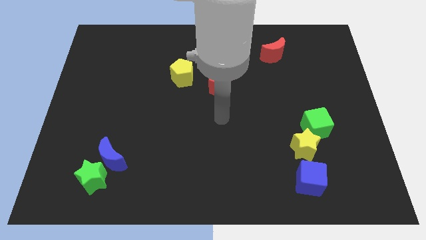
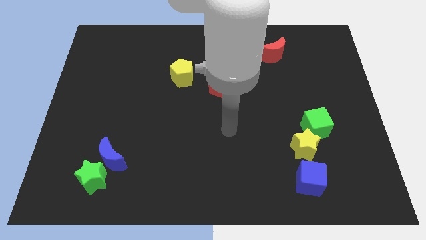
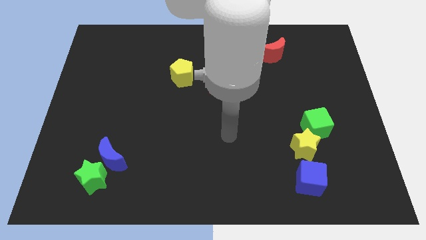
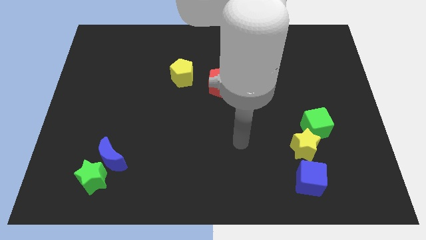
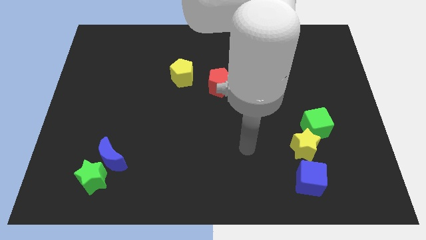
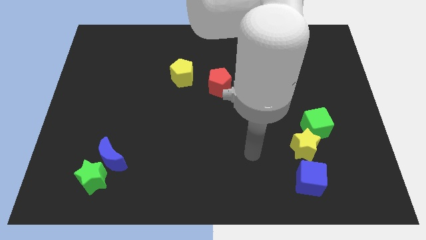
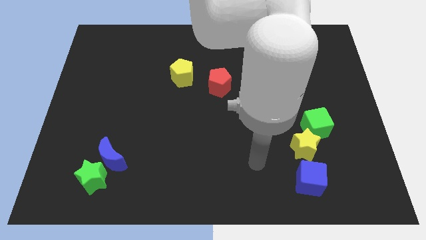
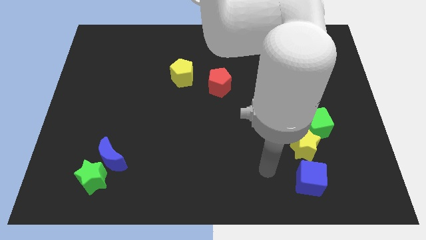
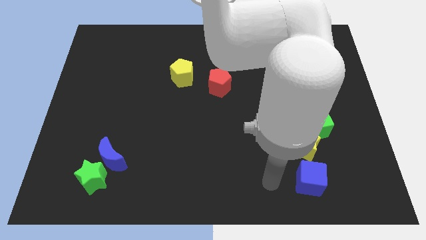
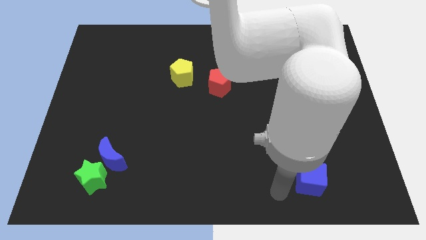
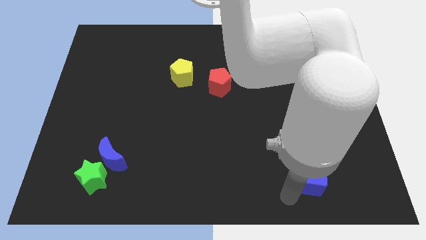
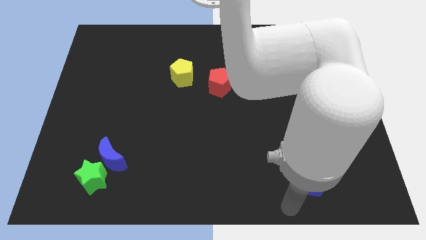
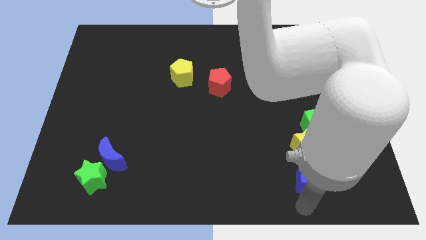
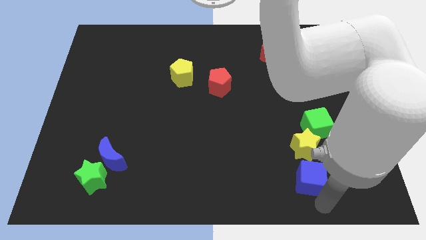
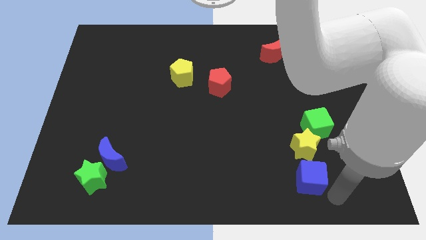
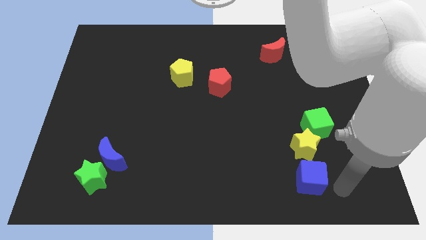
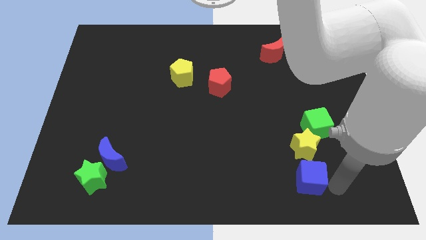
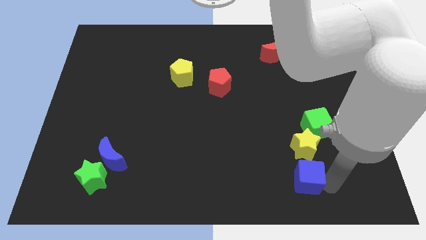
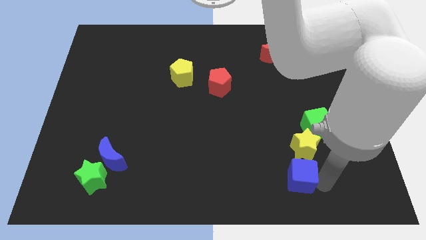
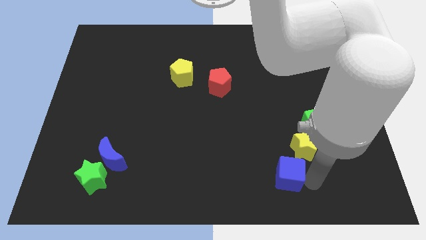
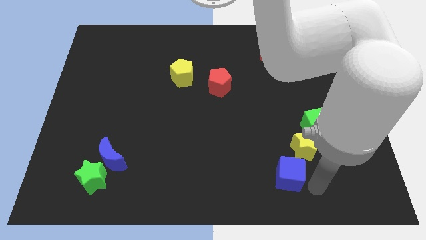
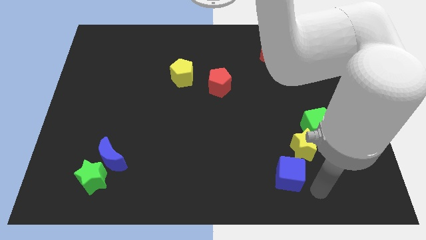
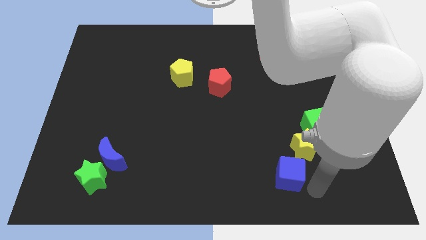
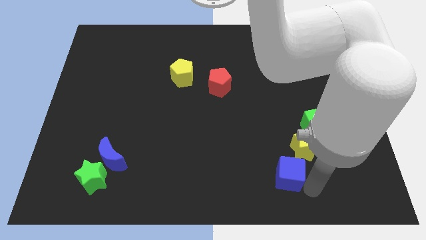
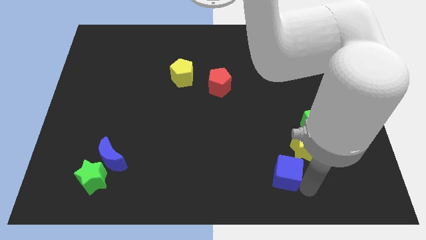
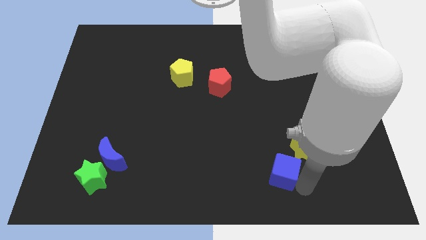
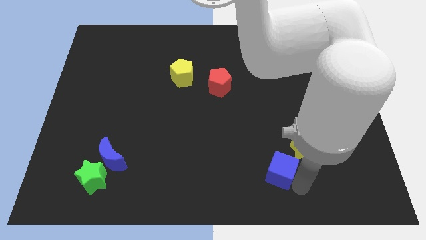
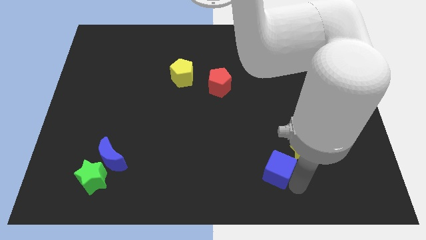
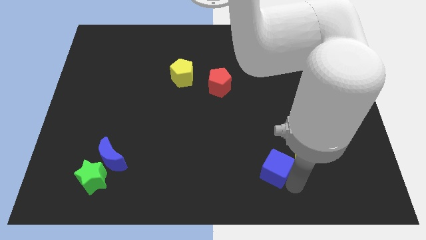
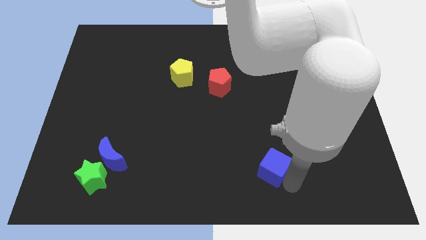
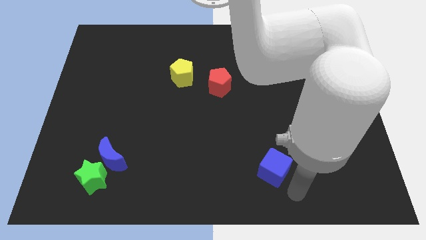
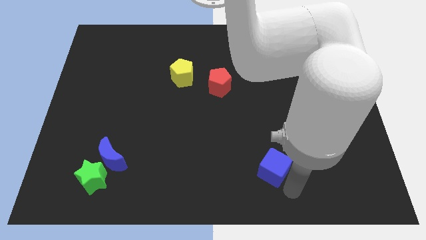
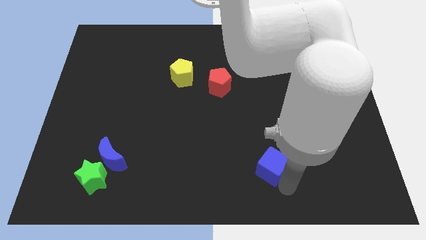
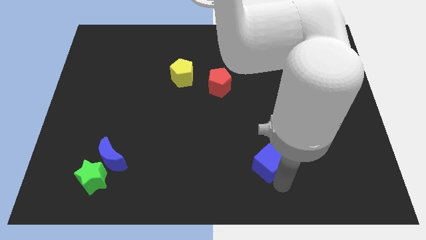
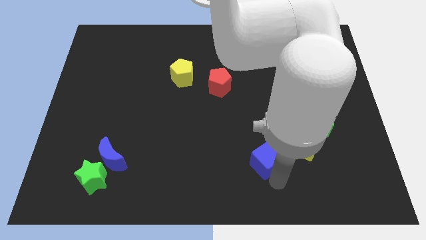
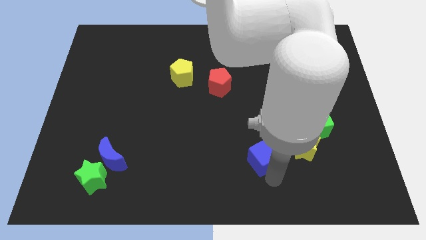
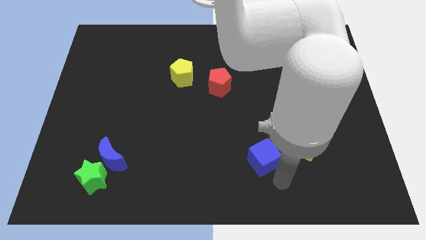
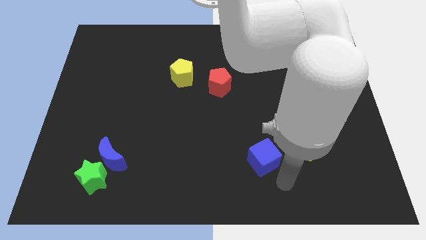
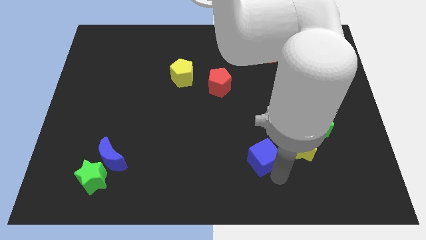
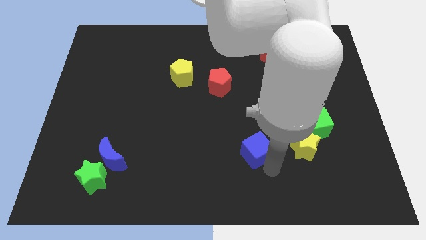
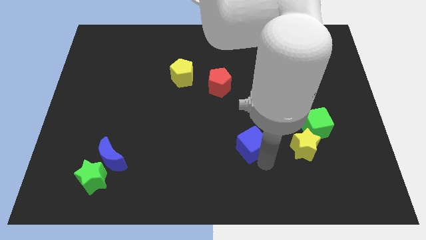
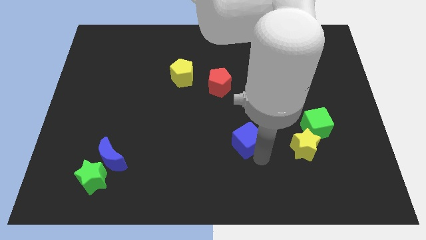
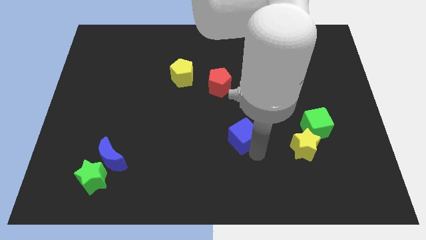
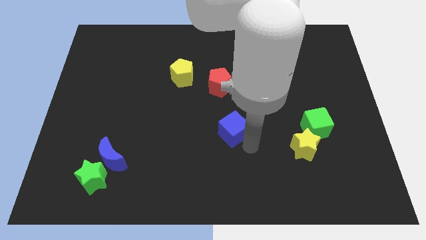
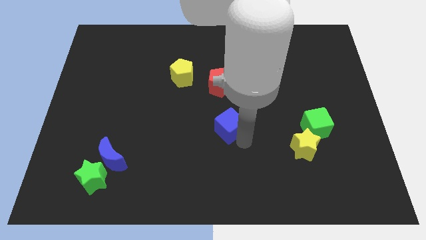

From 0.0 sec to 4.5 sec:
push the blue cube up and then left

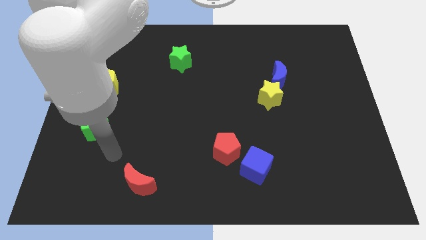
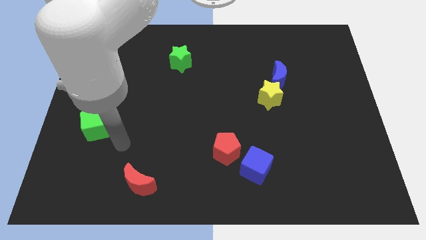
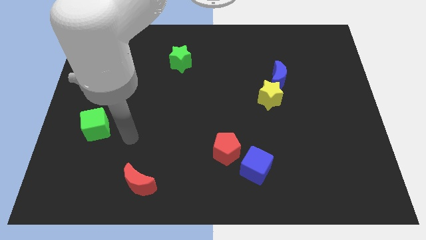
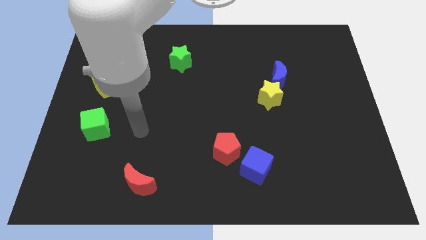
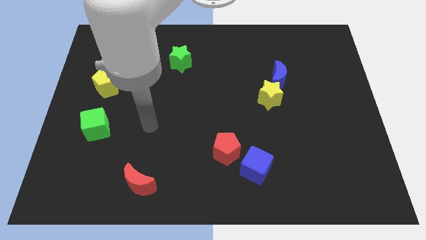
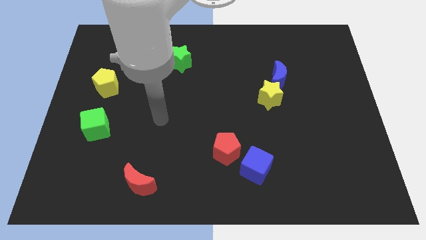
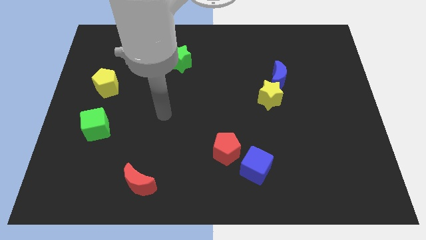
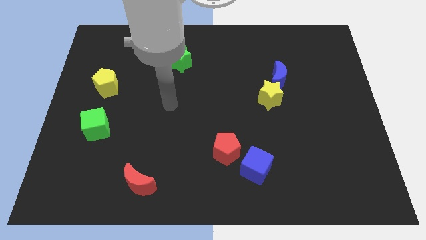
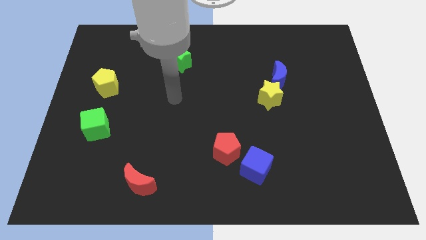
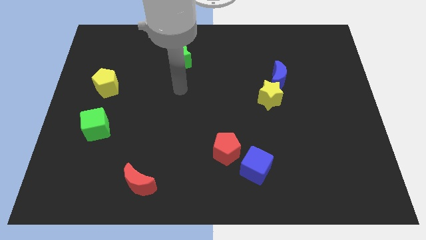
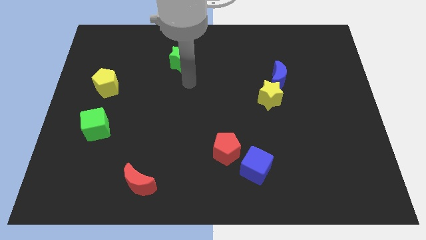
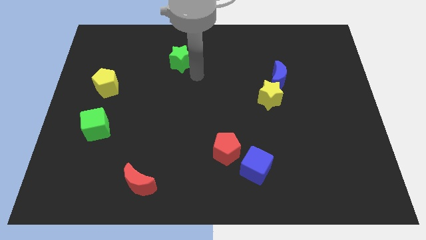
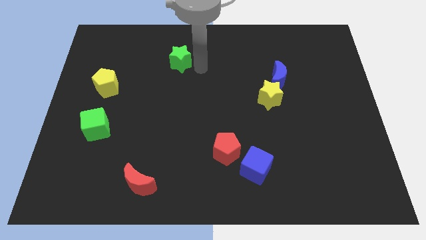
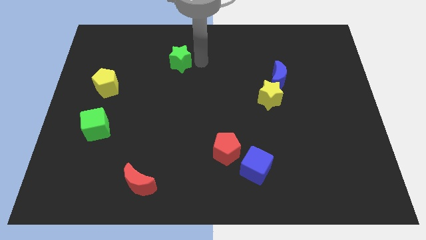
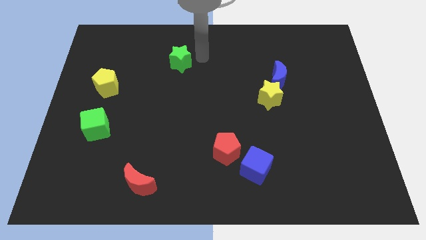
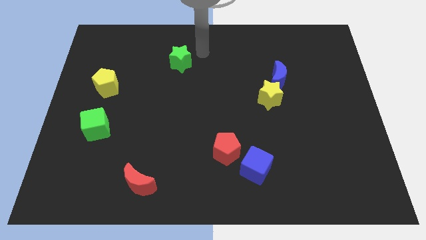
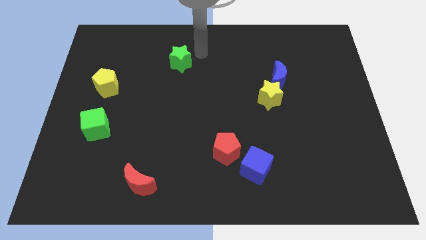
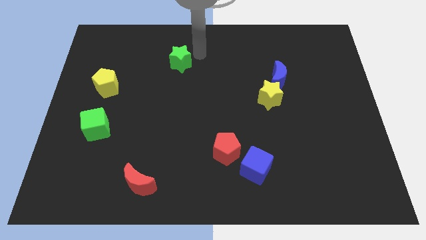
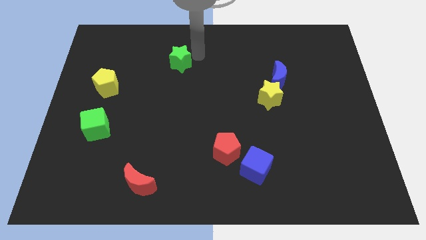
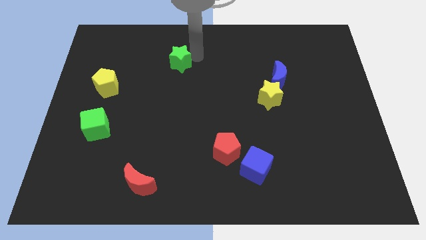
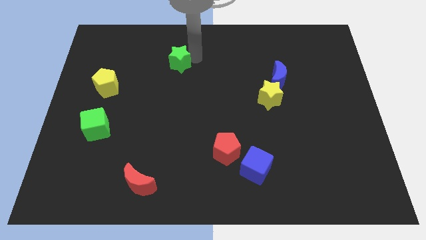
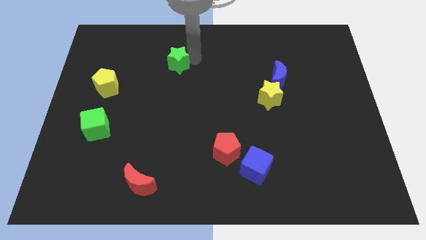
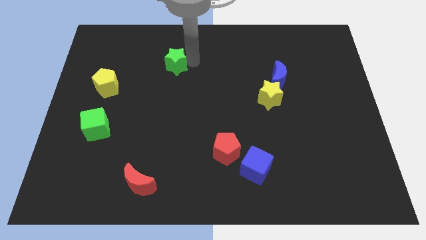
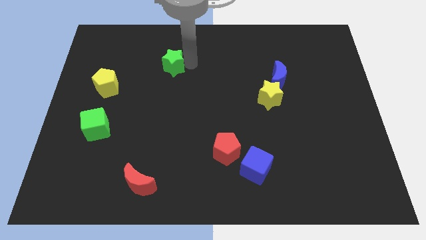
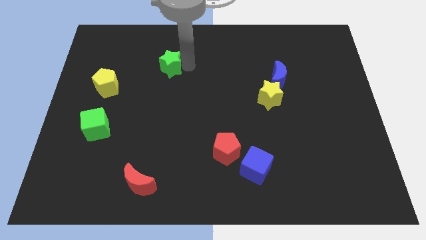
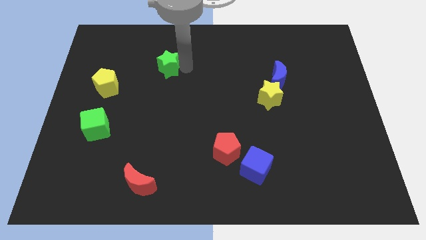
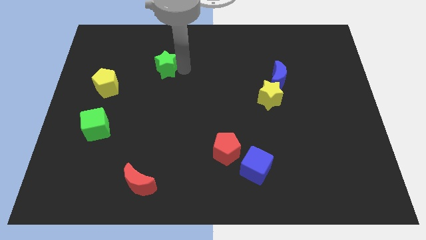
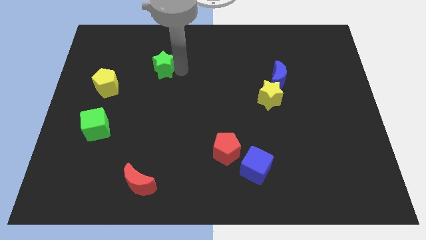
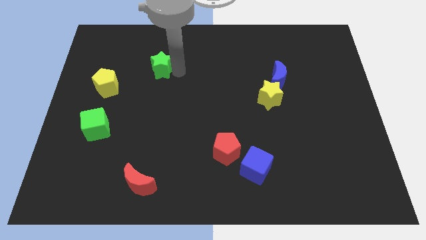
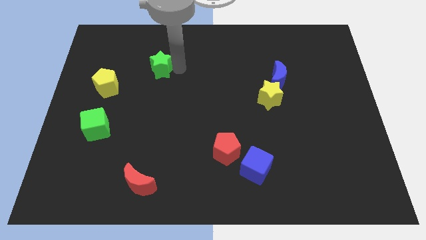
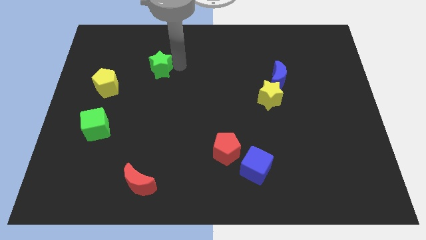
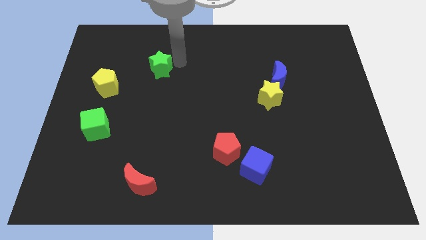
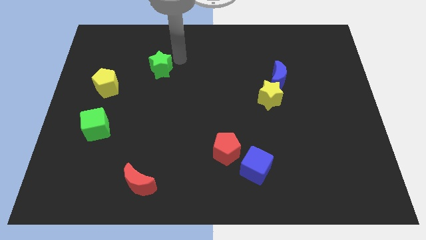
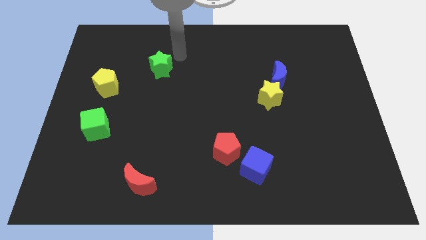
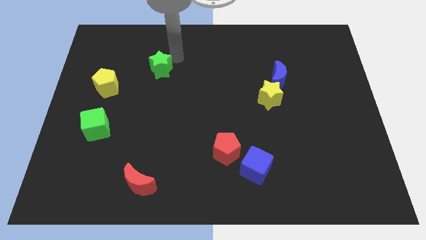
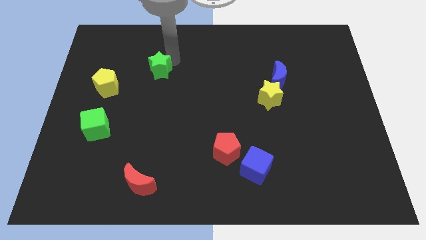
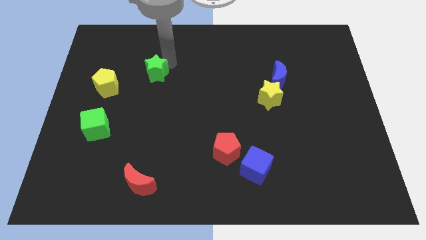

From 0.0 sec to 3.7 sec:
push the green star a little downwards and left
